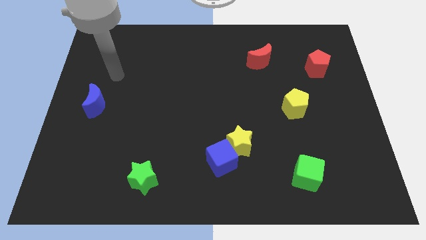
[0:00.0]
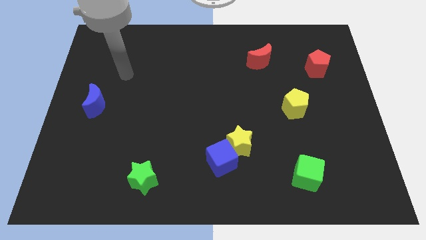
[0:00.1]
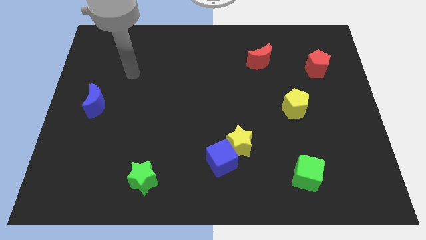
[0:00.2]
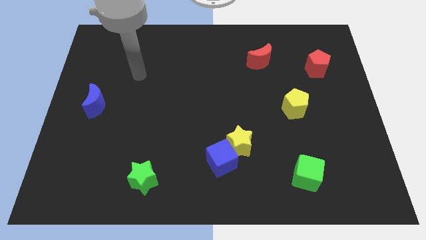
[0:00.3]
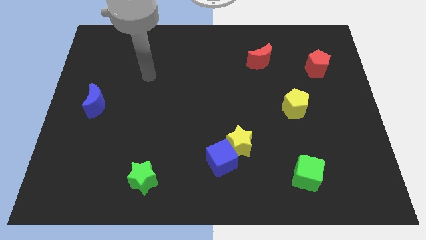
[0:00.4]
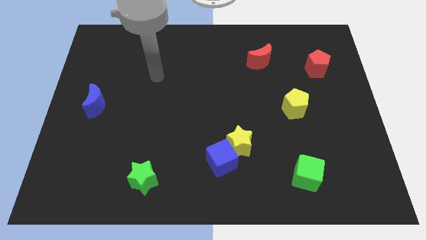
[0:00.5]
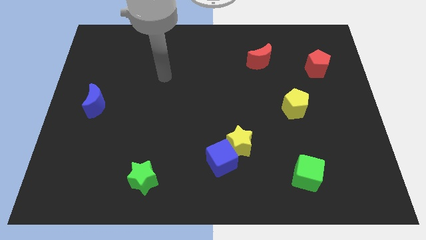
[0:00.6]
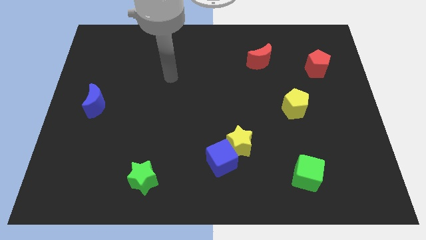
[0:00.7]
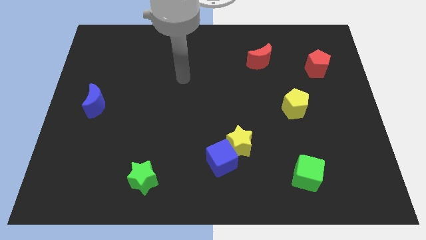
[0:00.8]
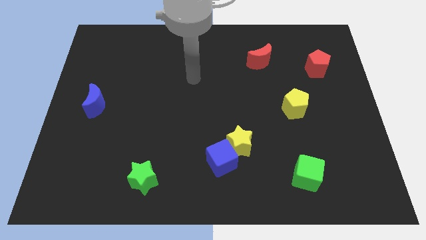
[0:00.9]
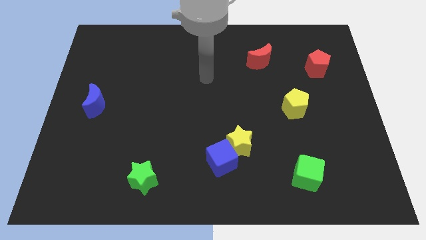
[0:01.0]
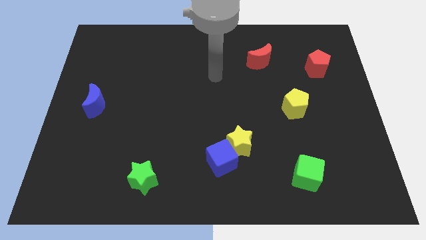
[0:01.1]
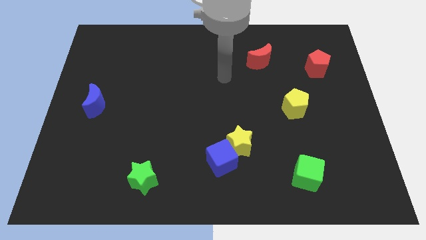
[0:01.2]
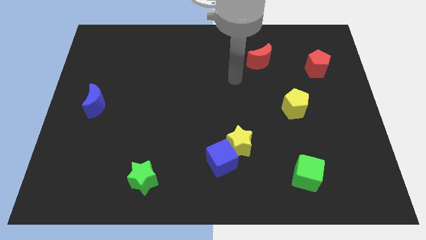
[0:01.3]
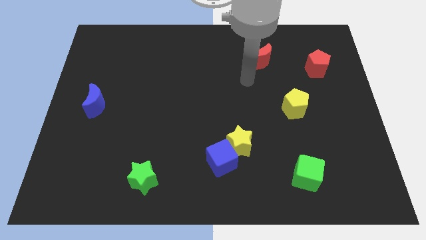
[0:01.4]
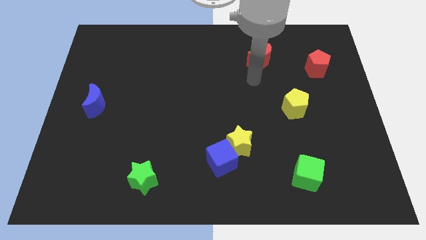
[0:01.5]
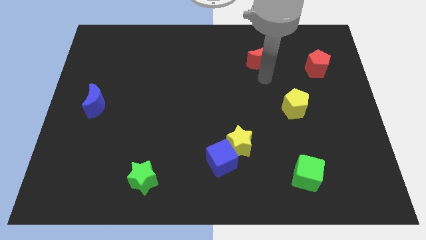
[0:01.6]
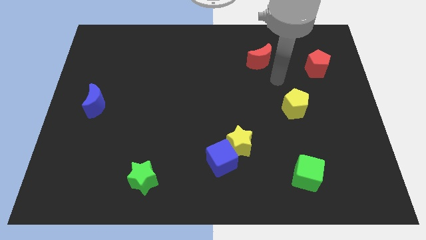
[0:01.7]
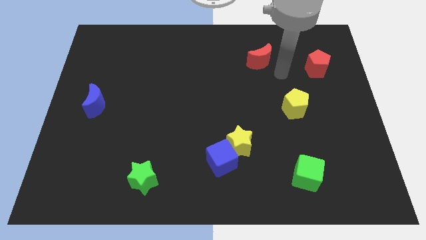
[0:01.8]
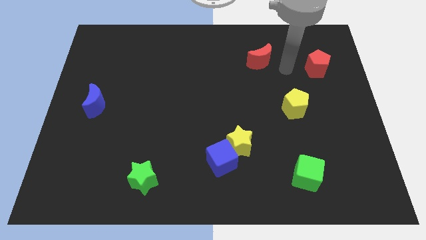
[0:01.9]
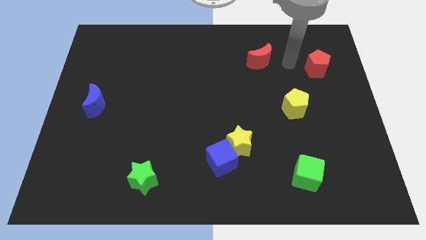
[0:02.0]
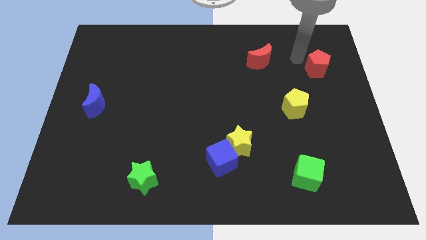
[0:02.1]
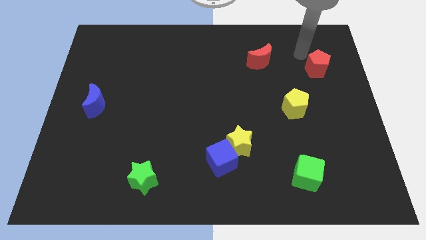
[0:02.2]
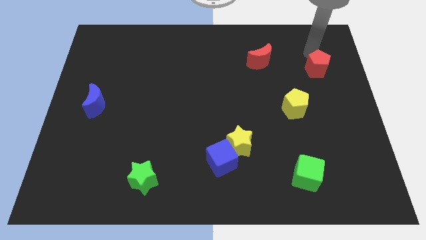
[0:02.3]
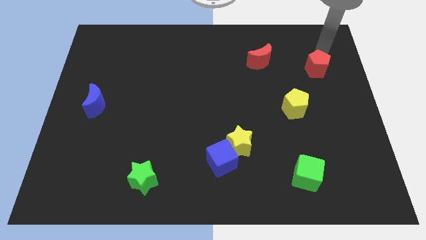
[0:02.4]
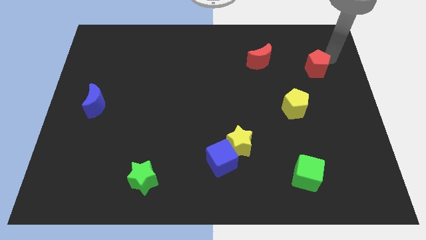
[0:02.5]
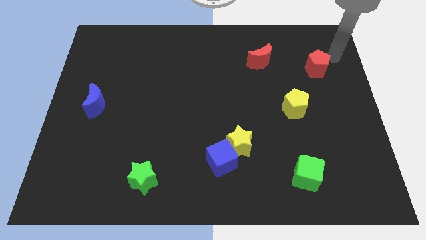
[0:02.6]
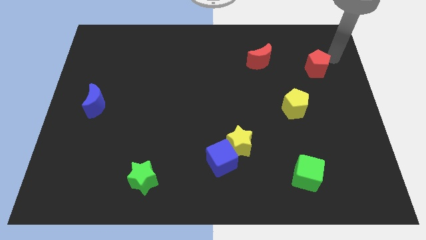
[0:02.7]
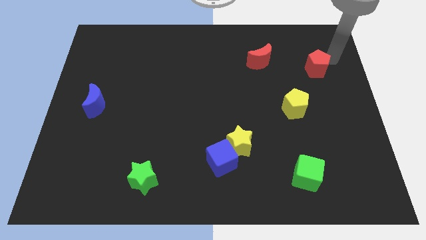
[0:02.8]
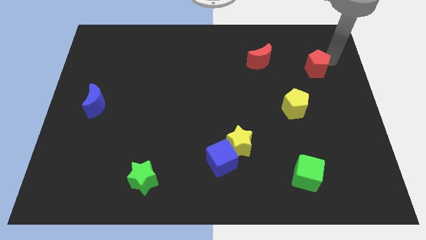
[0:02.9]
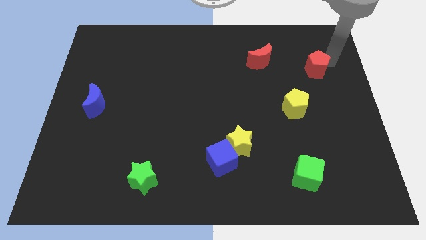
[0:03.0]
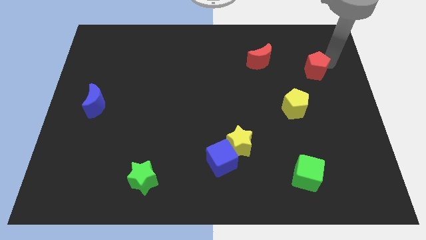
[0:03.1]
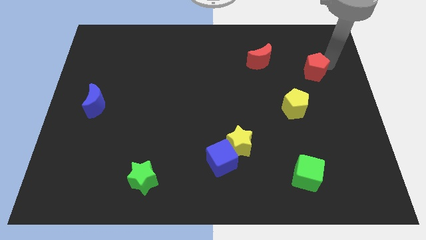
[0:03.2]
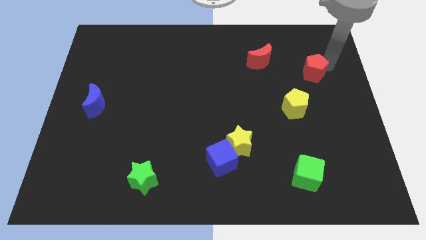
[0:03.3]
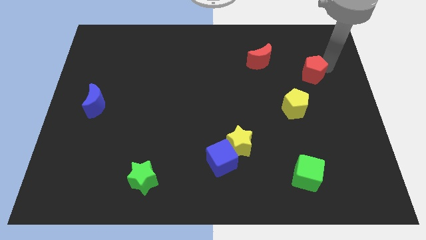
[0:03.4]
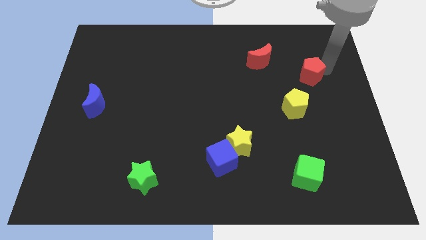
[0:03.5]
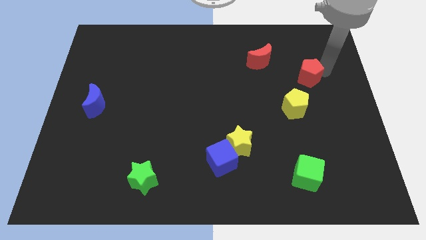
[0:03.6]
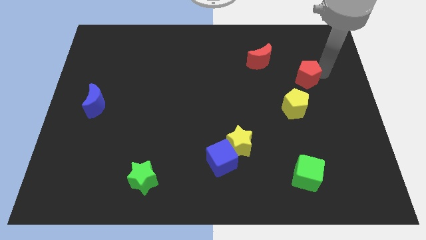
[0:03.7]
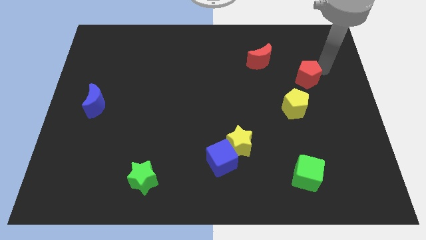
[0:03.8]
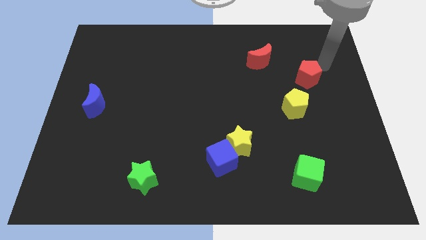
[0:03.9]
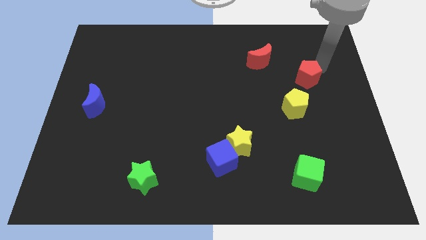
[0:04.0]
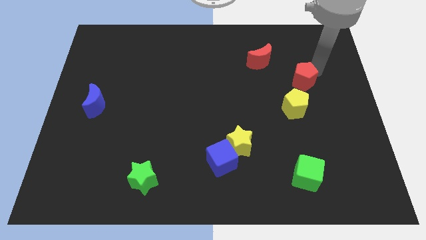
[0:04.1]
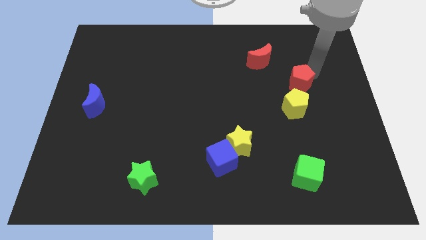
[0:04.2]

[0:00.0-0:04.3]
push the red pentagon somewhat downwards and to the left diagonally

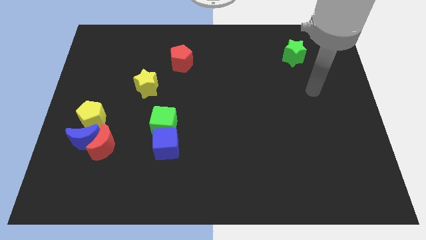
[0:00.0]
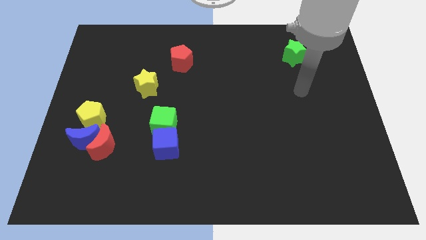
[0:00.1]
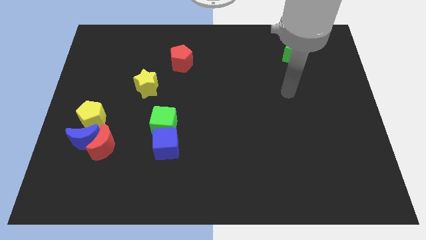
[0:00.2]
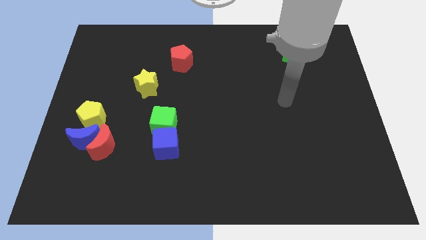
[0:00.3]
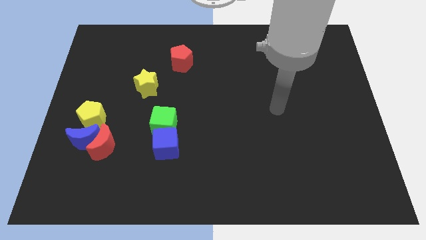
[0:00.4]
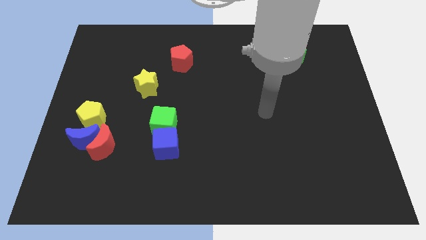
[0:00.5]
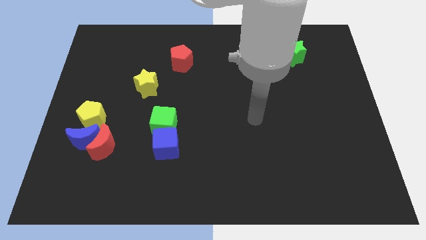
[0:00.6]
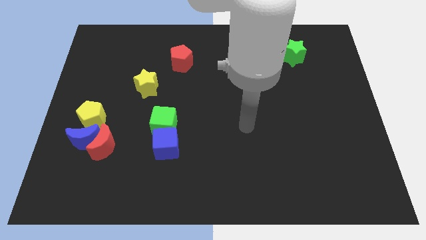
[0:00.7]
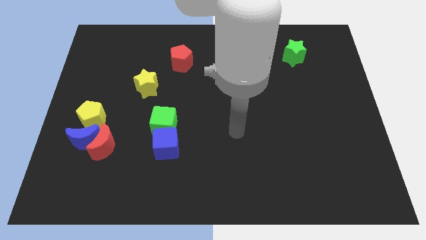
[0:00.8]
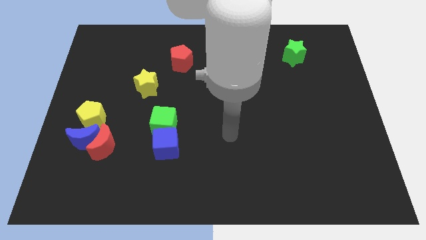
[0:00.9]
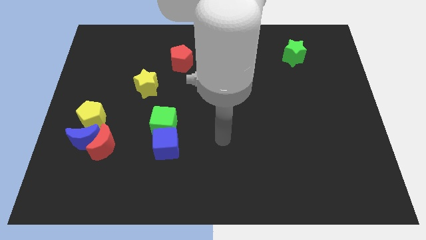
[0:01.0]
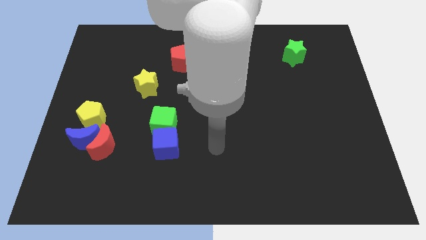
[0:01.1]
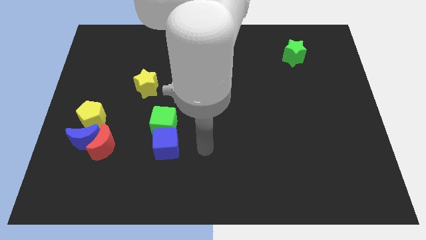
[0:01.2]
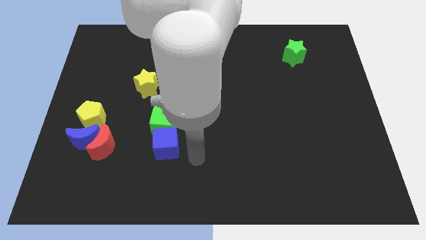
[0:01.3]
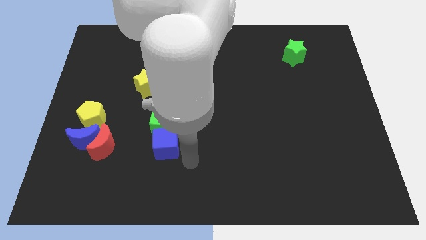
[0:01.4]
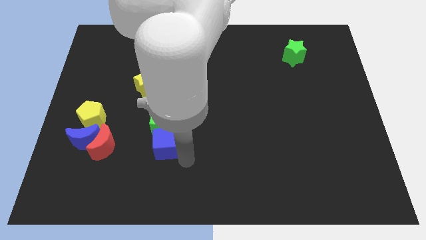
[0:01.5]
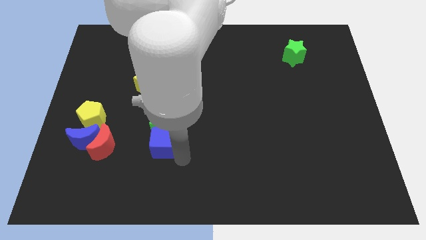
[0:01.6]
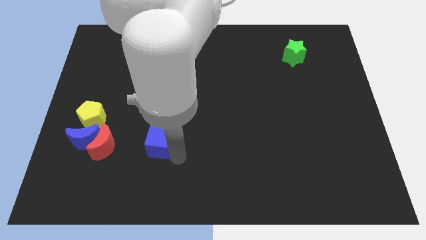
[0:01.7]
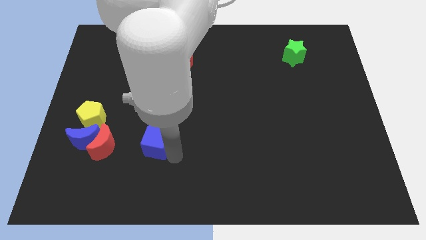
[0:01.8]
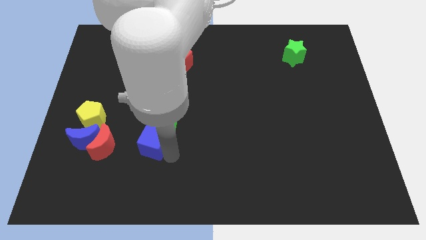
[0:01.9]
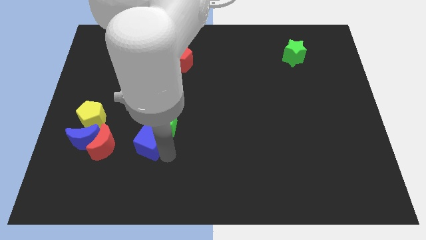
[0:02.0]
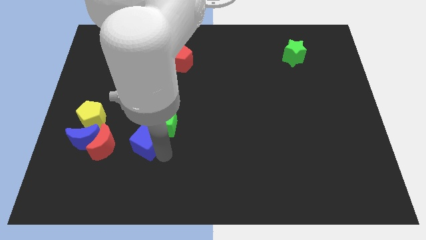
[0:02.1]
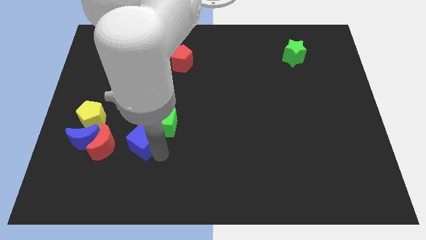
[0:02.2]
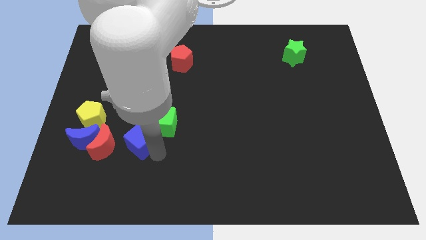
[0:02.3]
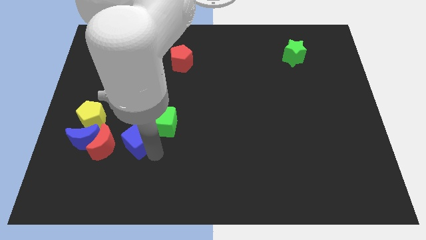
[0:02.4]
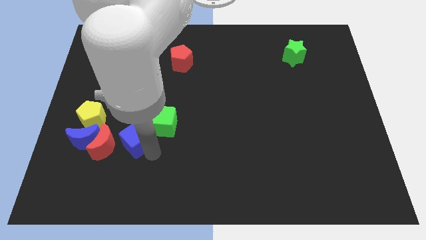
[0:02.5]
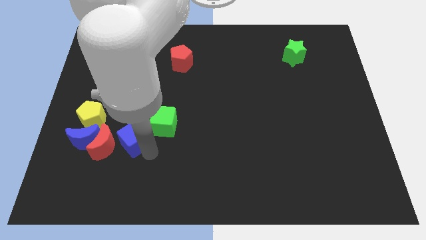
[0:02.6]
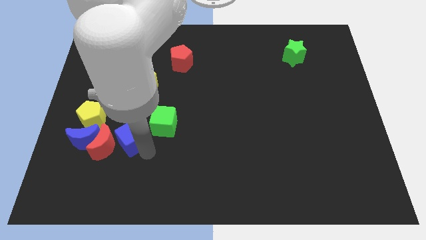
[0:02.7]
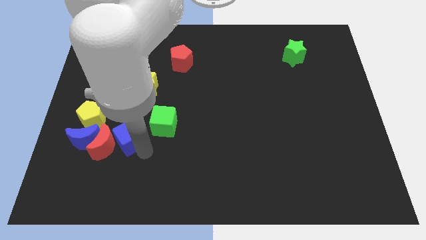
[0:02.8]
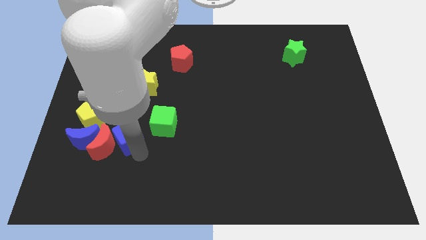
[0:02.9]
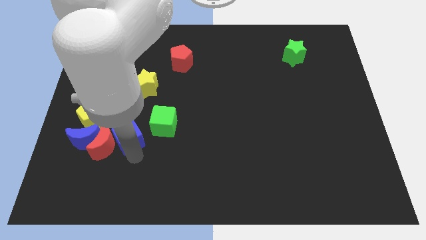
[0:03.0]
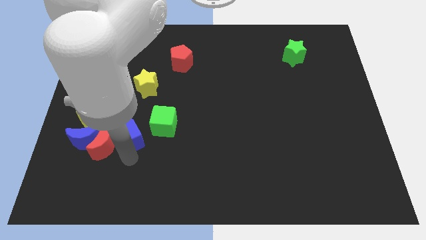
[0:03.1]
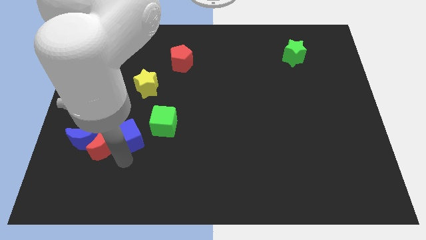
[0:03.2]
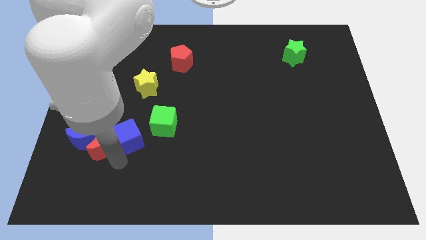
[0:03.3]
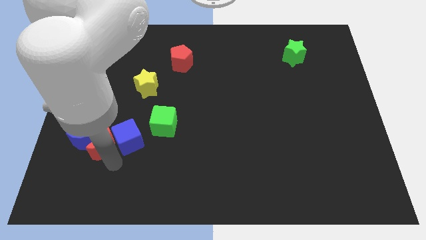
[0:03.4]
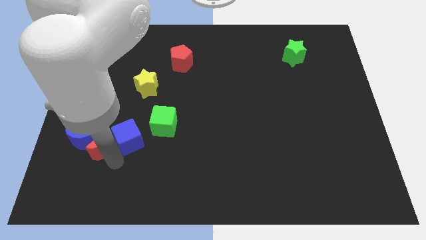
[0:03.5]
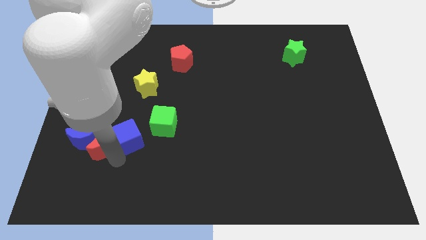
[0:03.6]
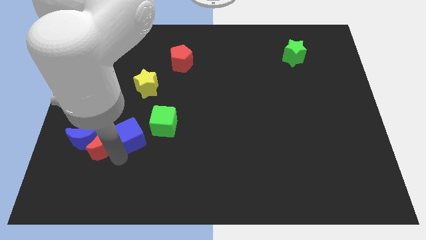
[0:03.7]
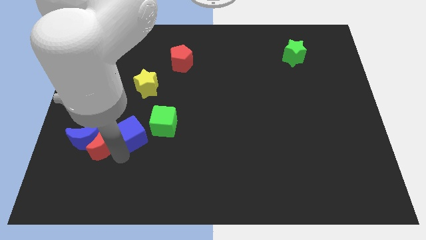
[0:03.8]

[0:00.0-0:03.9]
slide the blue cube a little up and left diagonally

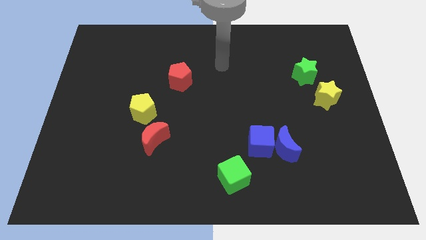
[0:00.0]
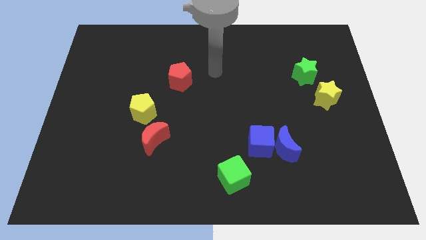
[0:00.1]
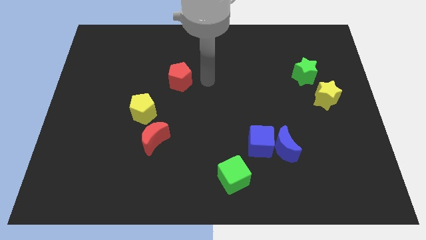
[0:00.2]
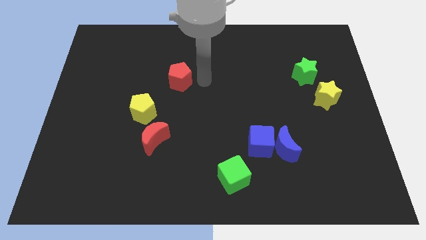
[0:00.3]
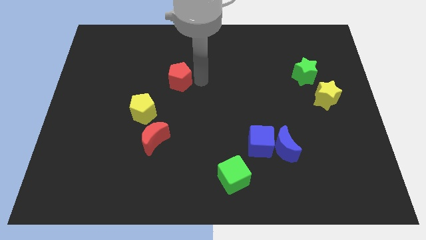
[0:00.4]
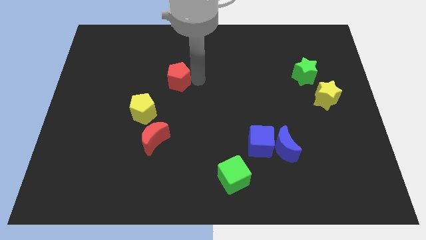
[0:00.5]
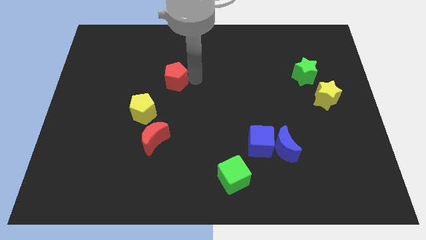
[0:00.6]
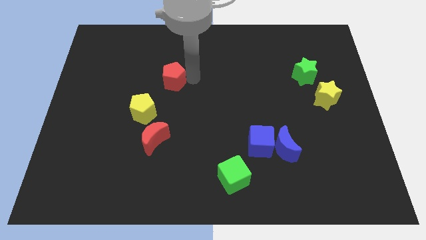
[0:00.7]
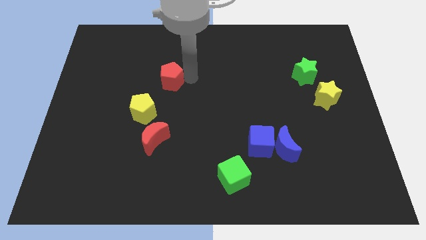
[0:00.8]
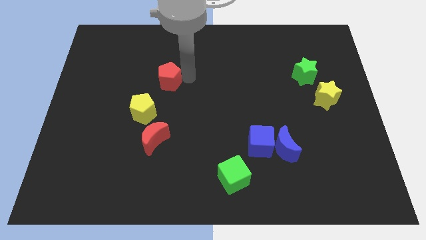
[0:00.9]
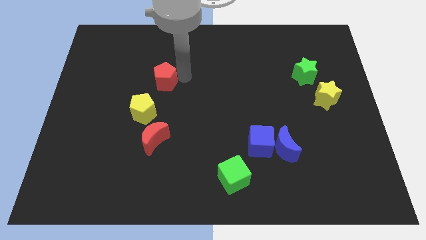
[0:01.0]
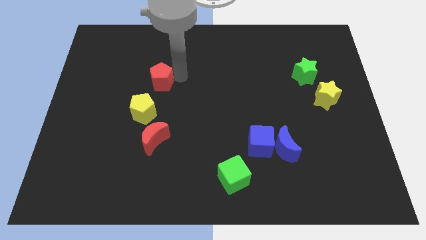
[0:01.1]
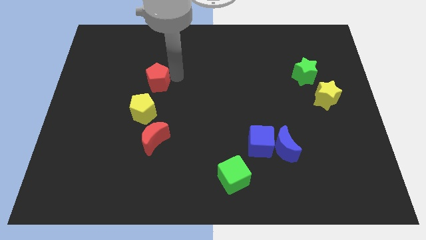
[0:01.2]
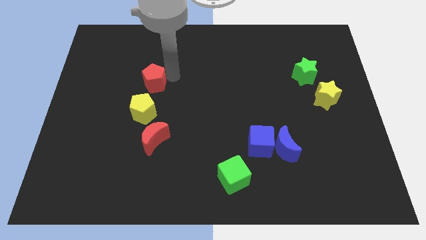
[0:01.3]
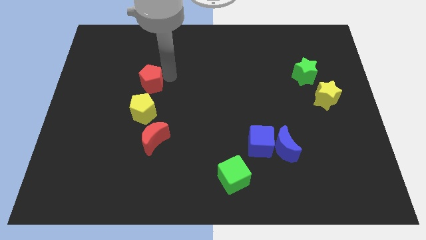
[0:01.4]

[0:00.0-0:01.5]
slightly push the red pentagon to the left
